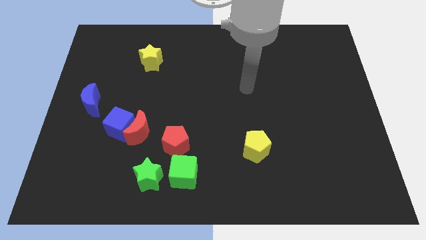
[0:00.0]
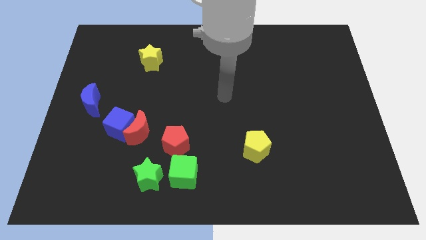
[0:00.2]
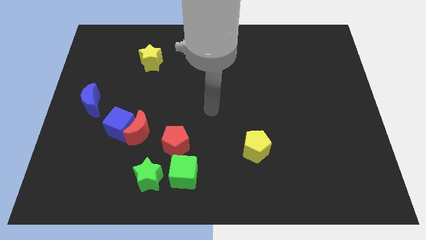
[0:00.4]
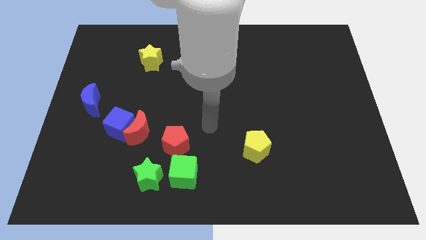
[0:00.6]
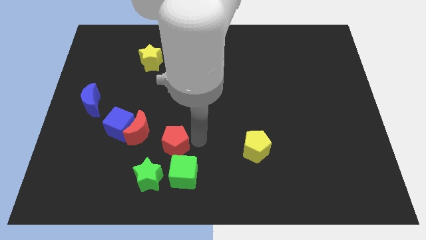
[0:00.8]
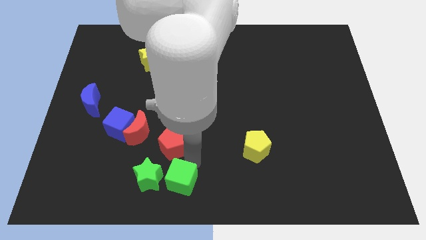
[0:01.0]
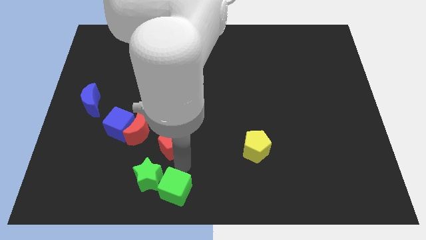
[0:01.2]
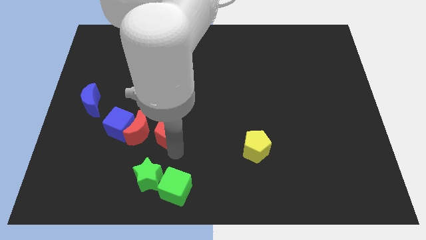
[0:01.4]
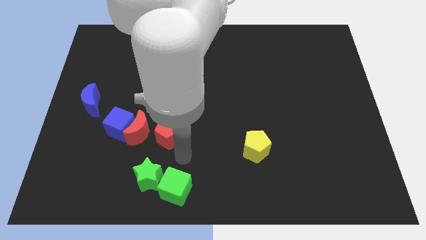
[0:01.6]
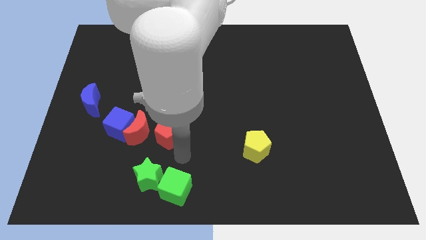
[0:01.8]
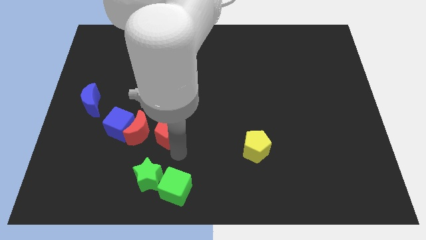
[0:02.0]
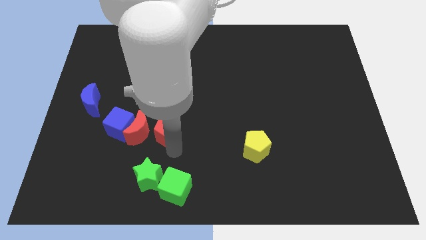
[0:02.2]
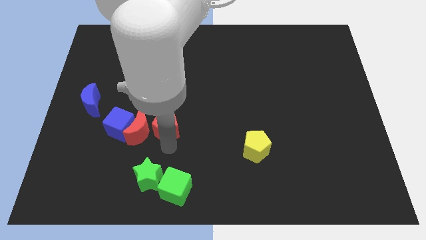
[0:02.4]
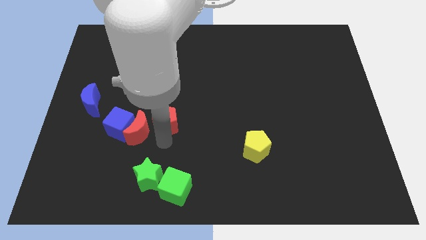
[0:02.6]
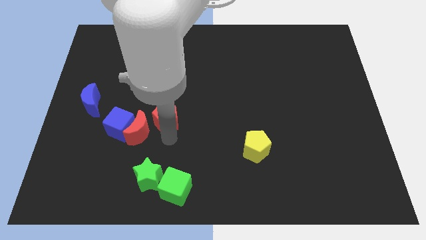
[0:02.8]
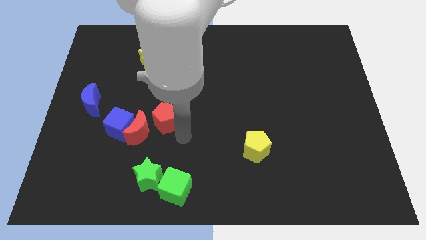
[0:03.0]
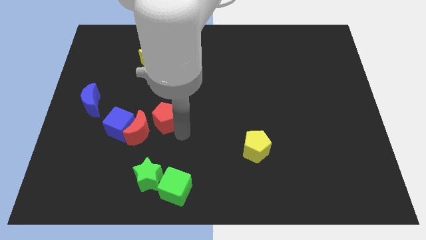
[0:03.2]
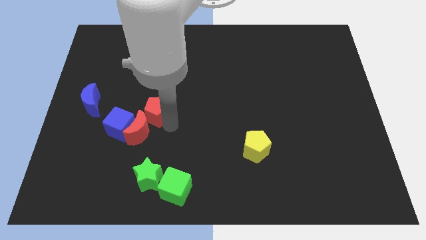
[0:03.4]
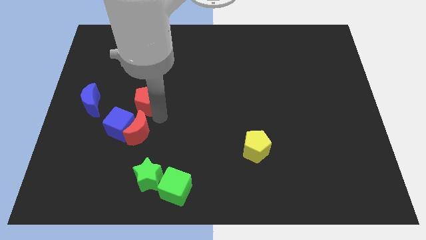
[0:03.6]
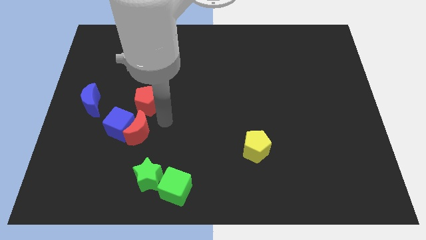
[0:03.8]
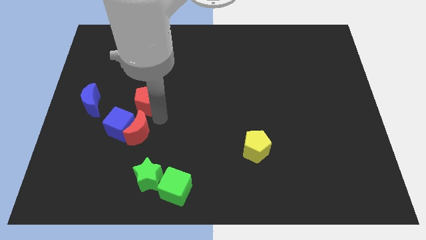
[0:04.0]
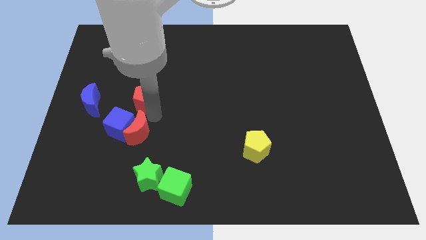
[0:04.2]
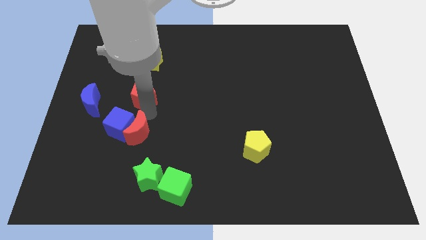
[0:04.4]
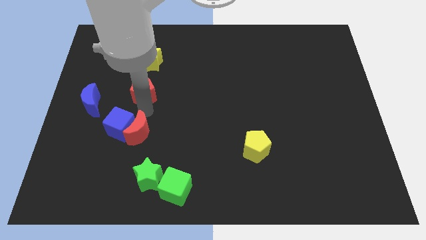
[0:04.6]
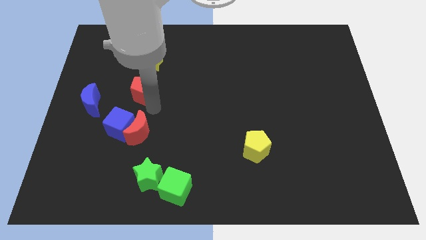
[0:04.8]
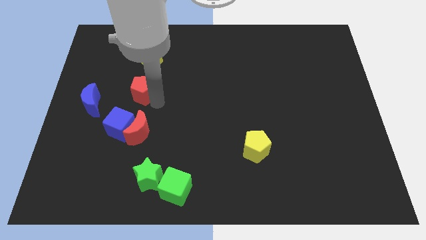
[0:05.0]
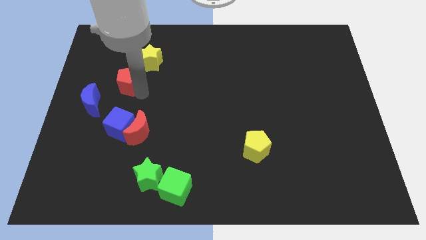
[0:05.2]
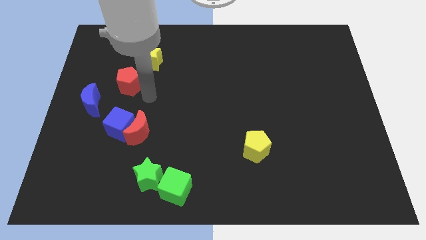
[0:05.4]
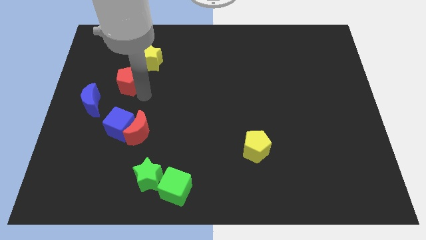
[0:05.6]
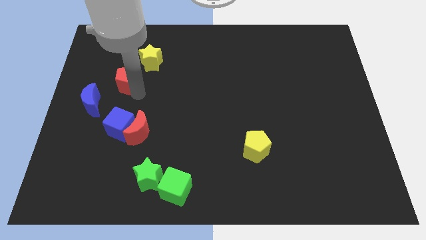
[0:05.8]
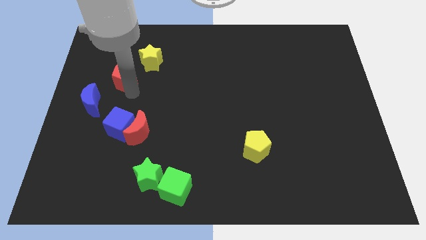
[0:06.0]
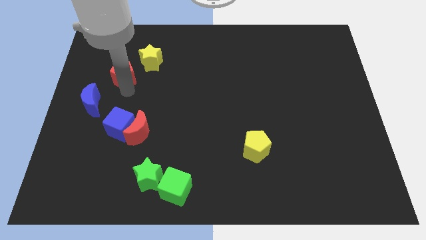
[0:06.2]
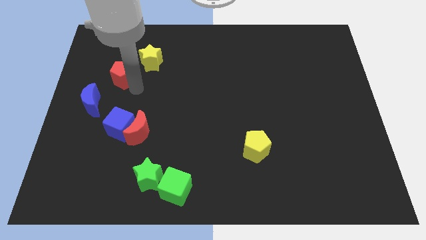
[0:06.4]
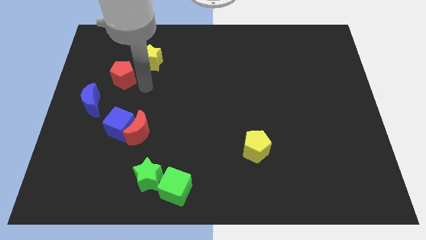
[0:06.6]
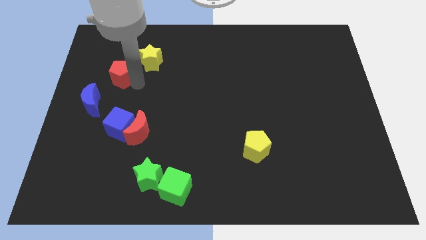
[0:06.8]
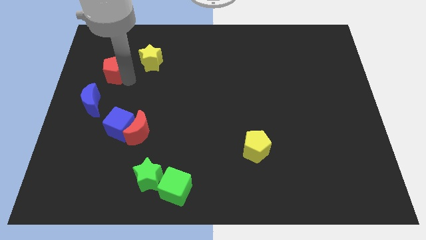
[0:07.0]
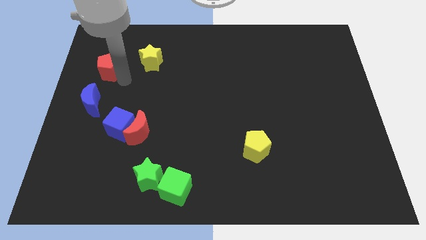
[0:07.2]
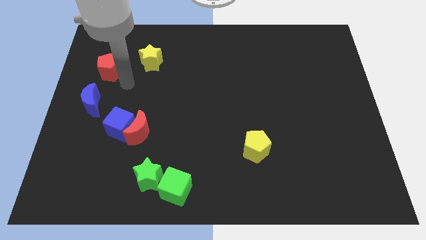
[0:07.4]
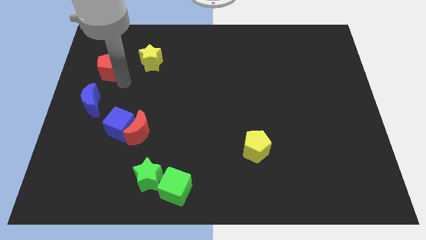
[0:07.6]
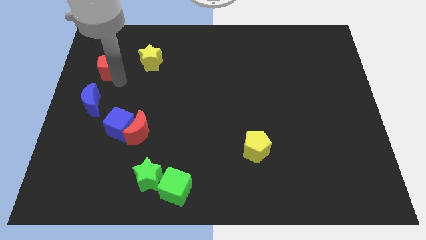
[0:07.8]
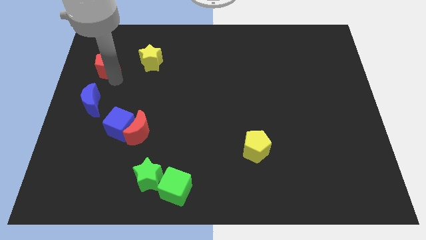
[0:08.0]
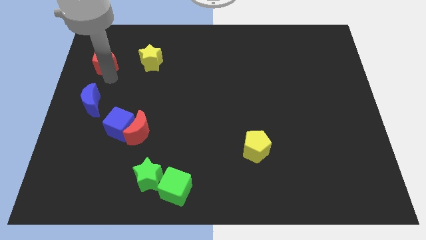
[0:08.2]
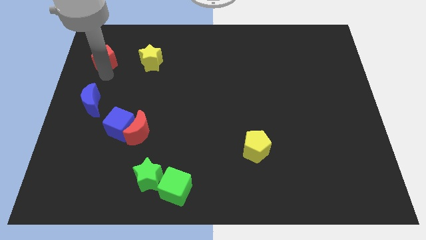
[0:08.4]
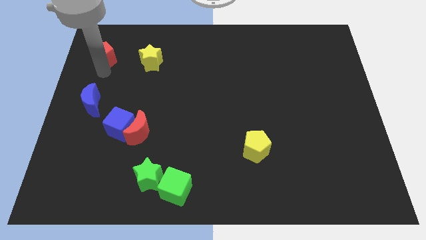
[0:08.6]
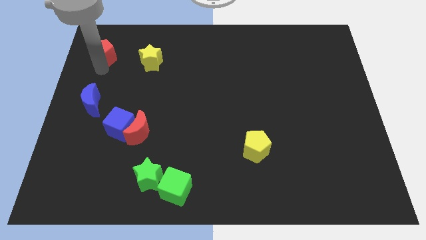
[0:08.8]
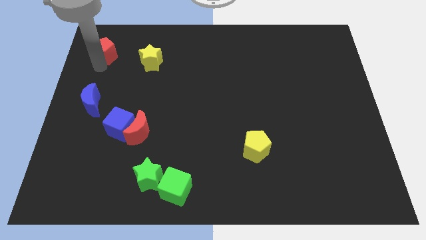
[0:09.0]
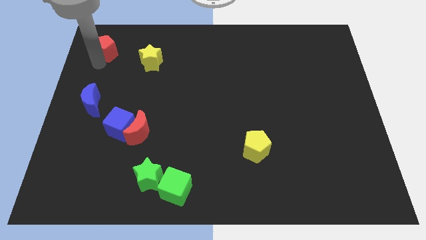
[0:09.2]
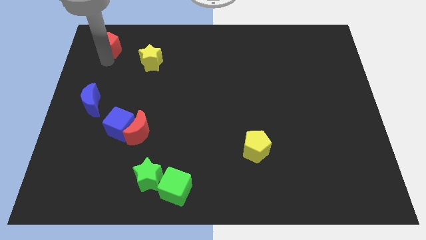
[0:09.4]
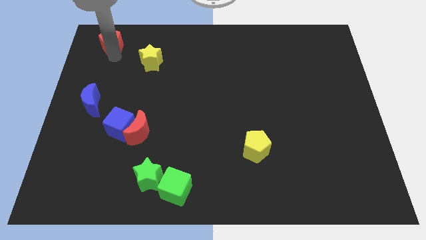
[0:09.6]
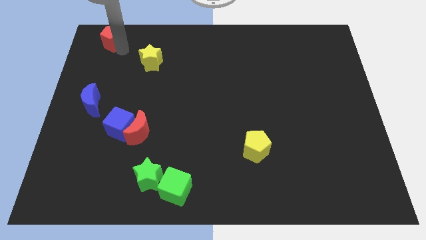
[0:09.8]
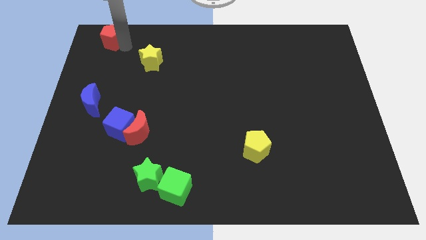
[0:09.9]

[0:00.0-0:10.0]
slide the red pentagon to the top left corner

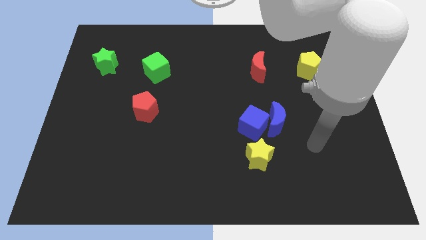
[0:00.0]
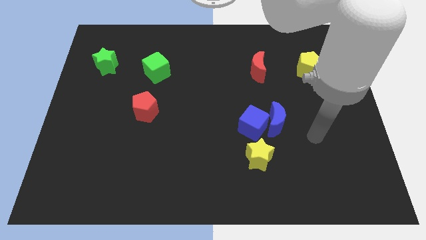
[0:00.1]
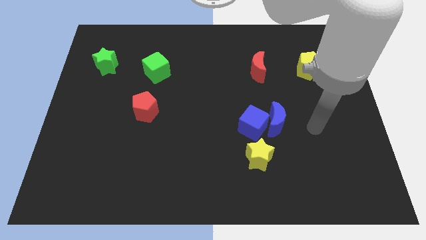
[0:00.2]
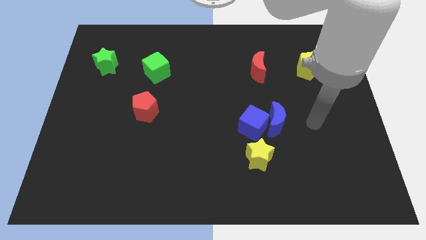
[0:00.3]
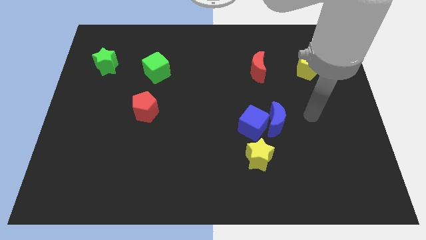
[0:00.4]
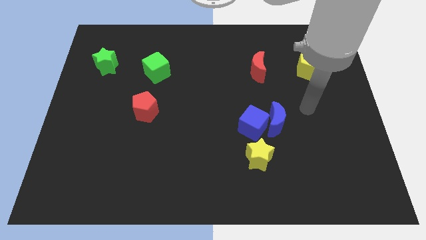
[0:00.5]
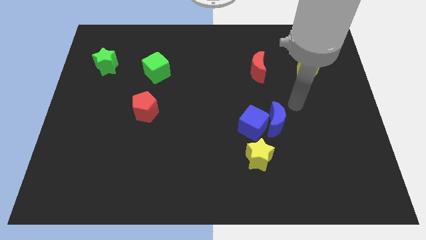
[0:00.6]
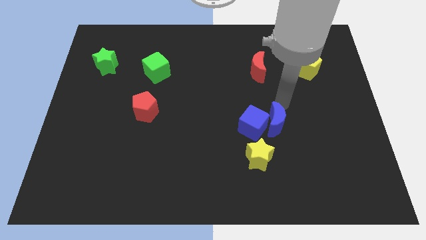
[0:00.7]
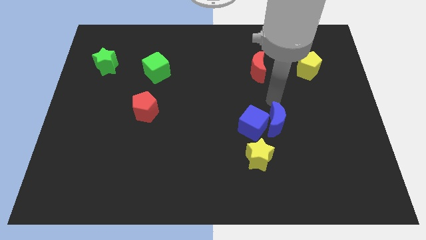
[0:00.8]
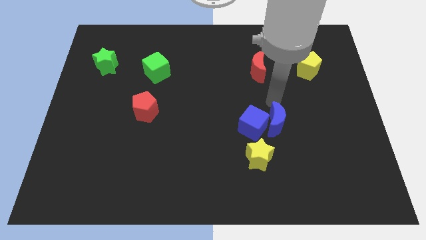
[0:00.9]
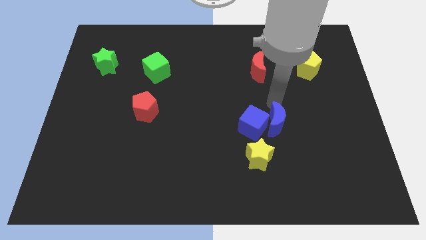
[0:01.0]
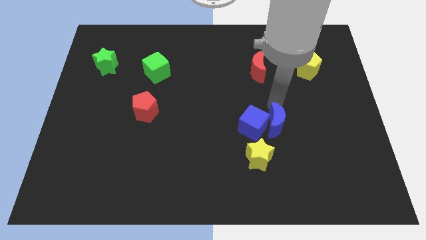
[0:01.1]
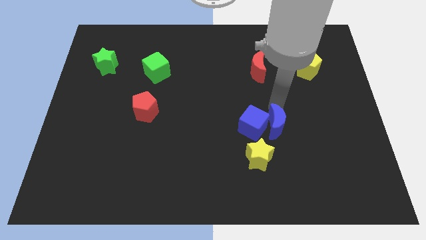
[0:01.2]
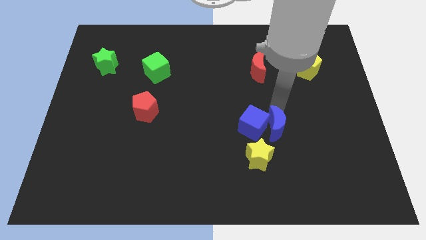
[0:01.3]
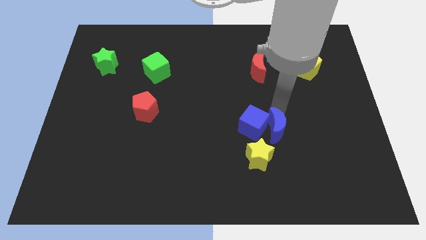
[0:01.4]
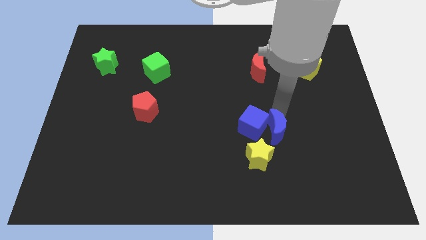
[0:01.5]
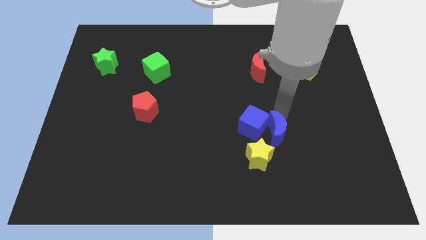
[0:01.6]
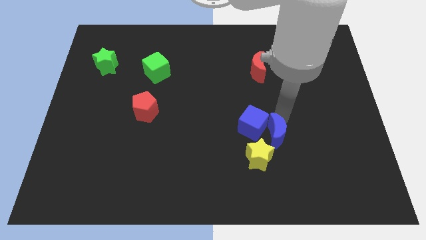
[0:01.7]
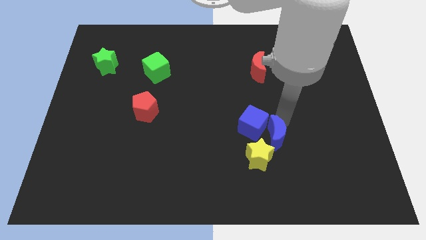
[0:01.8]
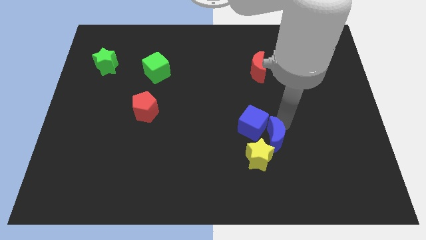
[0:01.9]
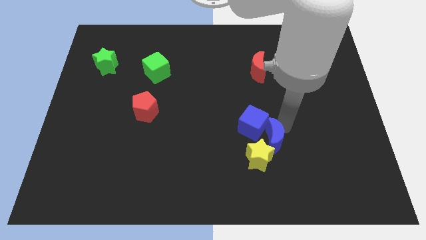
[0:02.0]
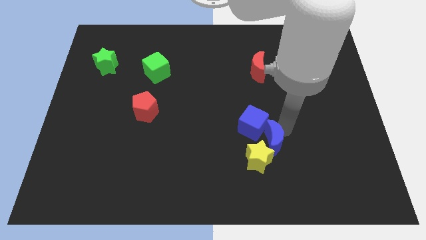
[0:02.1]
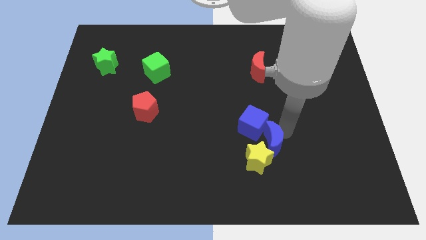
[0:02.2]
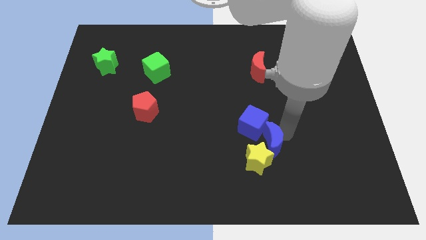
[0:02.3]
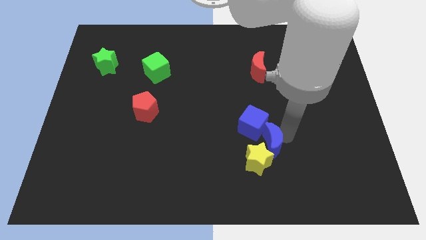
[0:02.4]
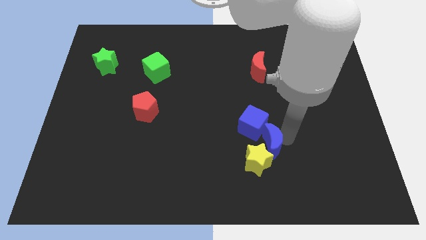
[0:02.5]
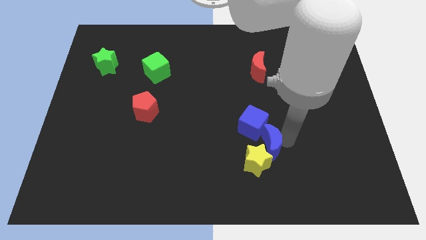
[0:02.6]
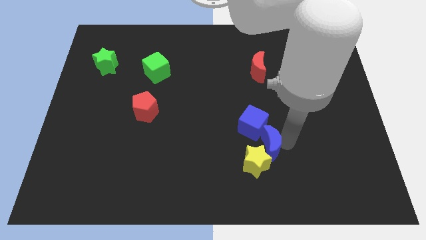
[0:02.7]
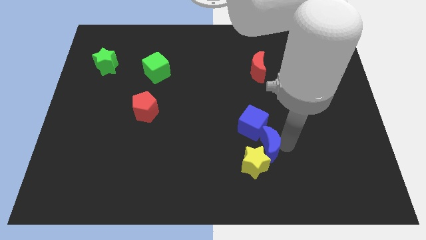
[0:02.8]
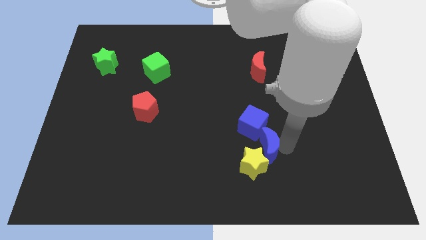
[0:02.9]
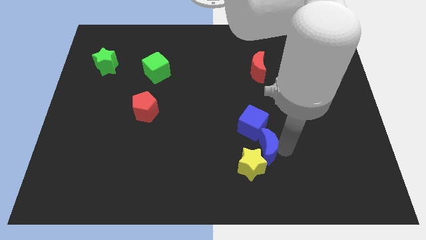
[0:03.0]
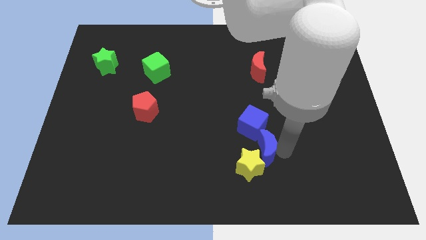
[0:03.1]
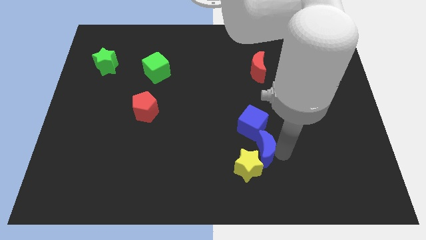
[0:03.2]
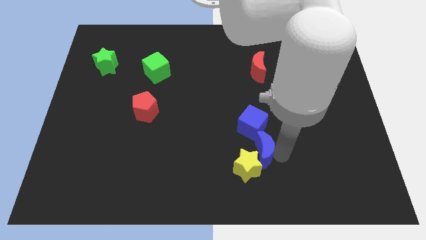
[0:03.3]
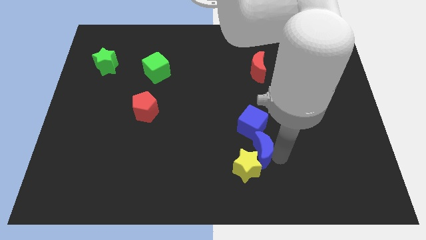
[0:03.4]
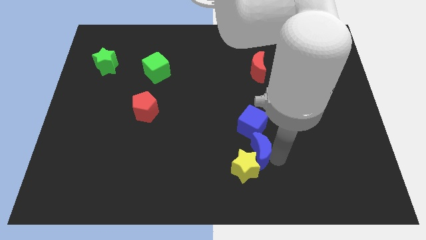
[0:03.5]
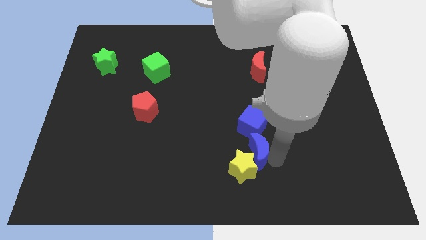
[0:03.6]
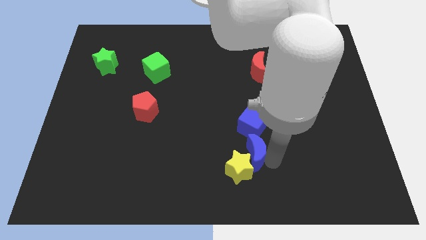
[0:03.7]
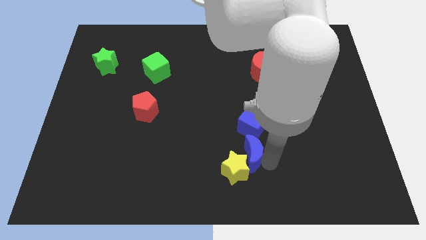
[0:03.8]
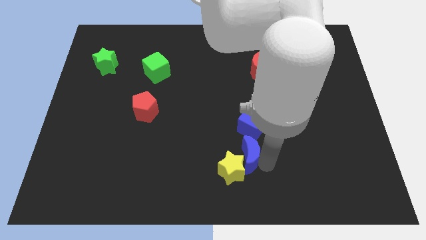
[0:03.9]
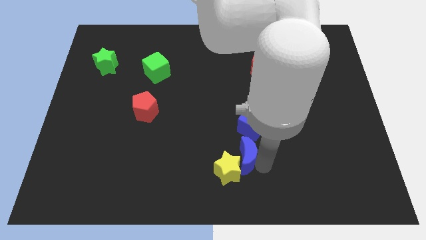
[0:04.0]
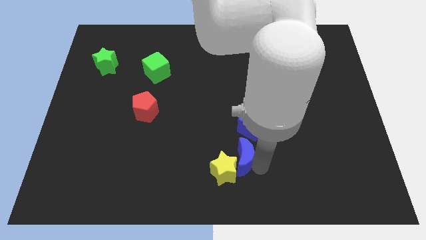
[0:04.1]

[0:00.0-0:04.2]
push the blue moon to the bottom
